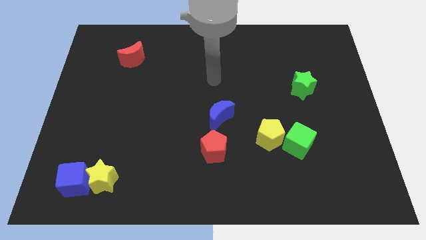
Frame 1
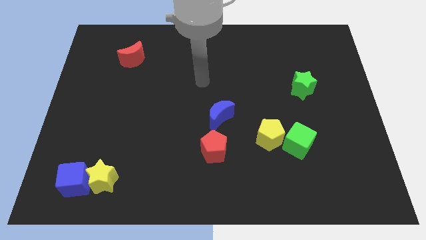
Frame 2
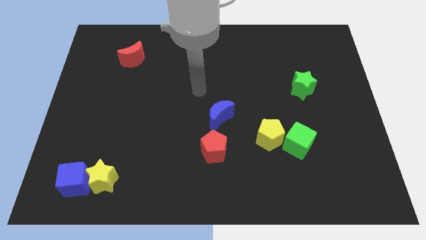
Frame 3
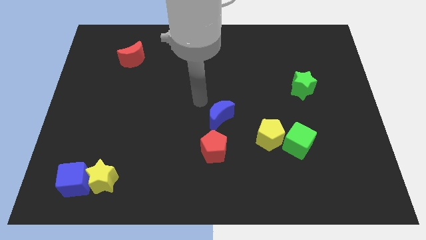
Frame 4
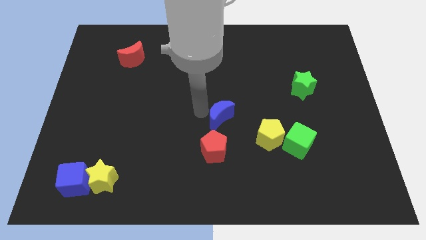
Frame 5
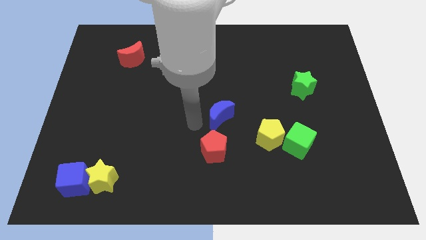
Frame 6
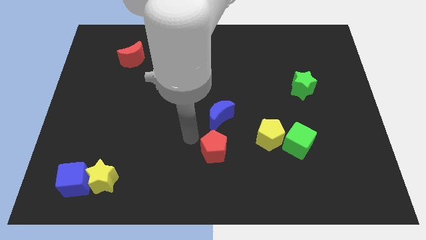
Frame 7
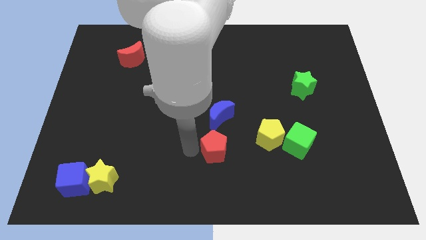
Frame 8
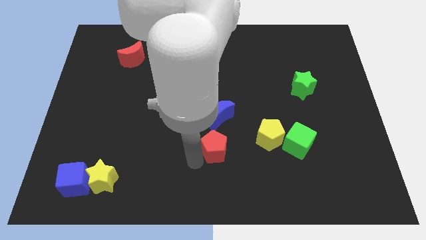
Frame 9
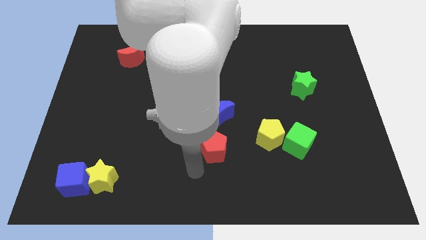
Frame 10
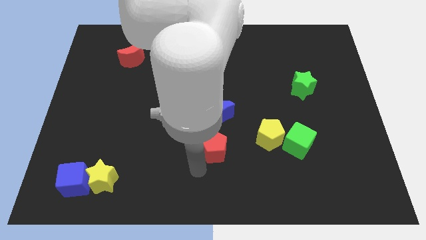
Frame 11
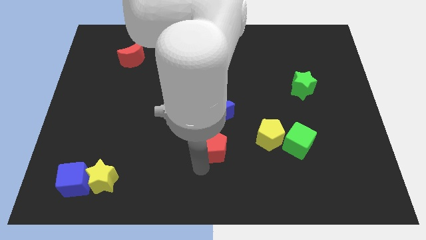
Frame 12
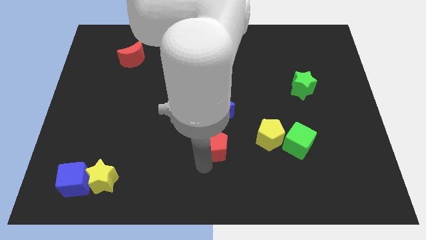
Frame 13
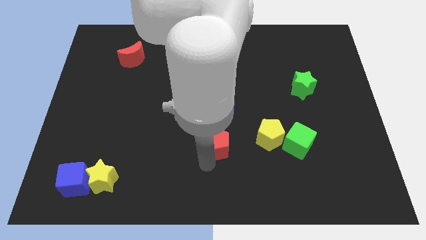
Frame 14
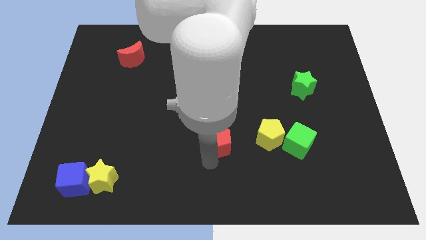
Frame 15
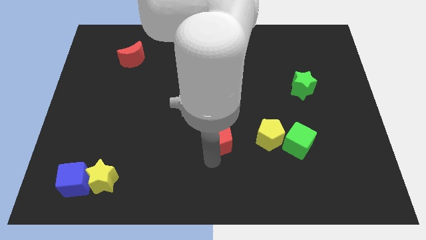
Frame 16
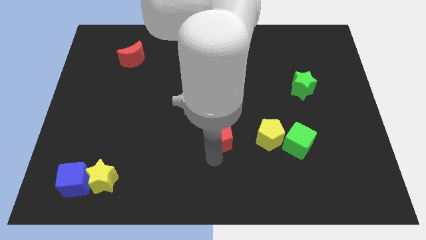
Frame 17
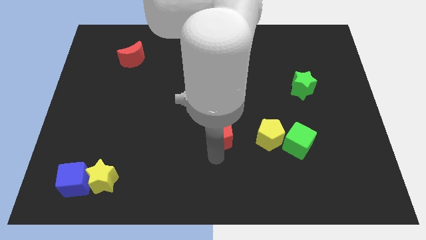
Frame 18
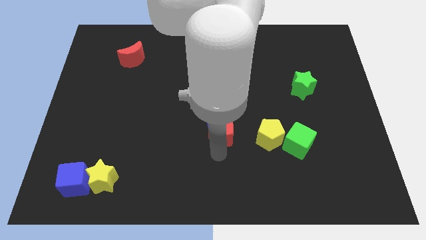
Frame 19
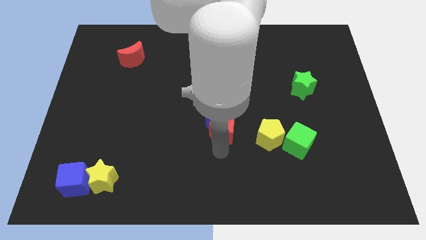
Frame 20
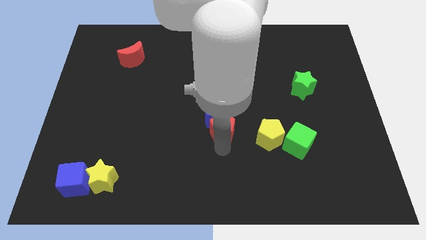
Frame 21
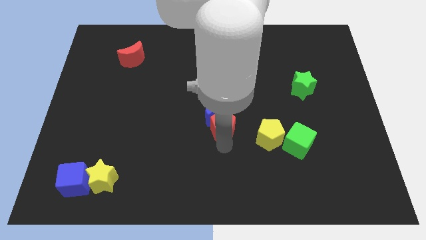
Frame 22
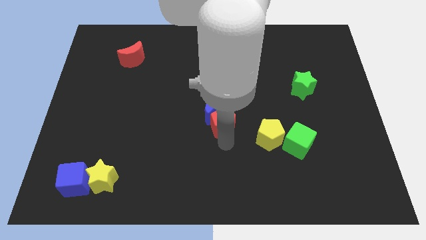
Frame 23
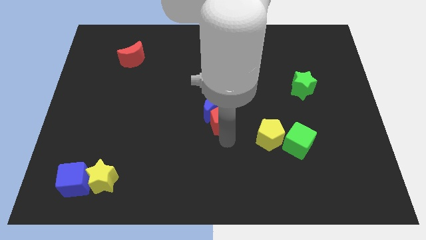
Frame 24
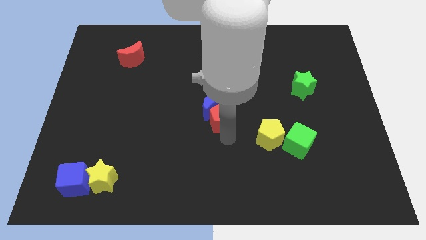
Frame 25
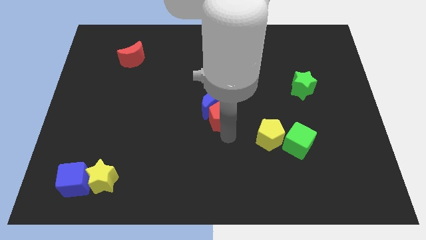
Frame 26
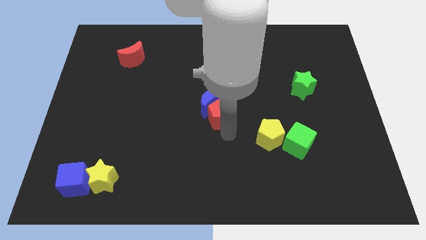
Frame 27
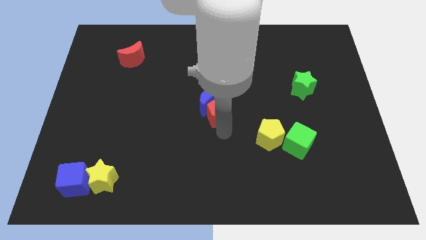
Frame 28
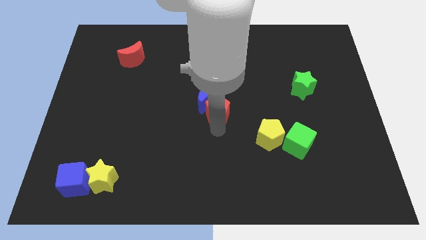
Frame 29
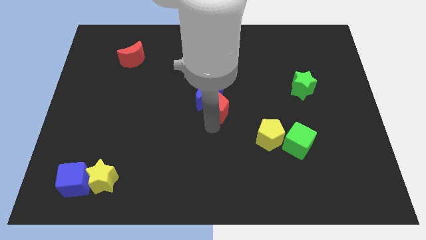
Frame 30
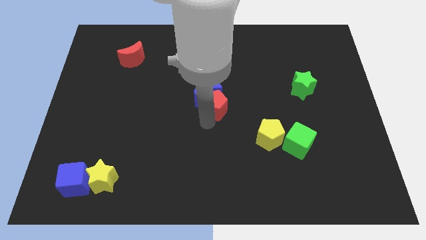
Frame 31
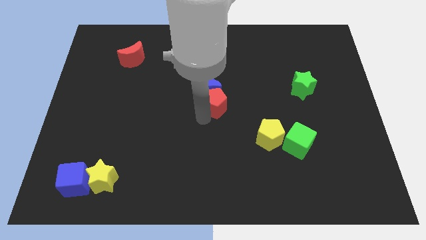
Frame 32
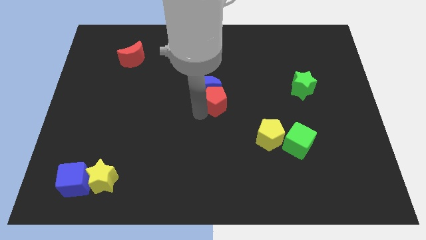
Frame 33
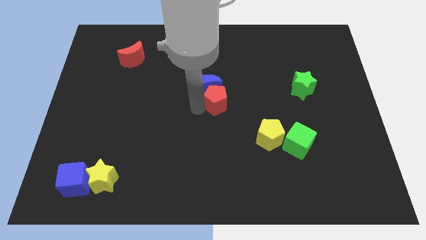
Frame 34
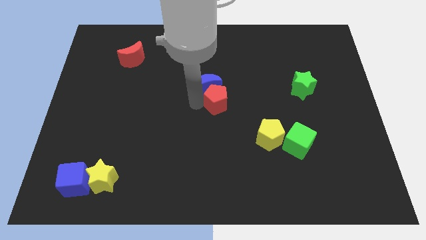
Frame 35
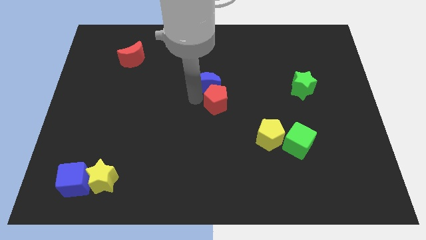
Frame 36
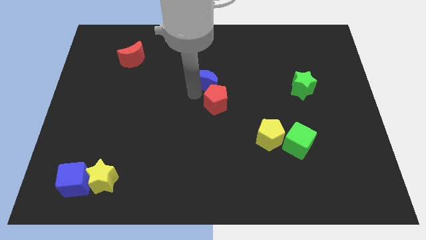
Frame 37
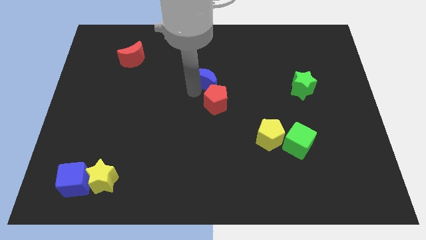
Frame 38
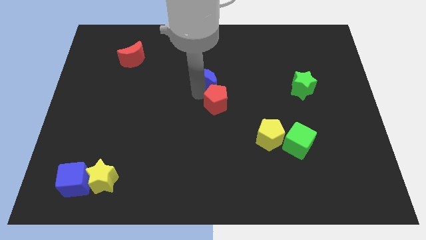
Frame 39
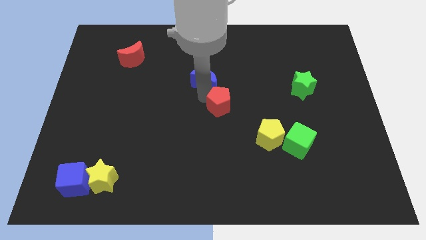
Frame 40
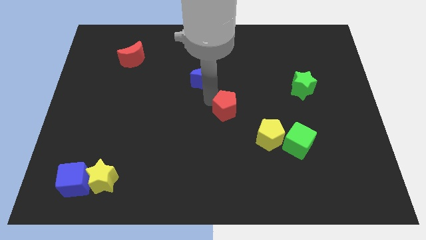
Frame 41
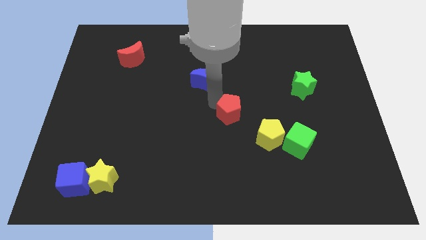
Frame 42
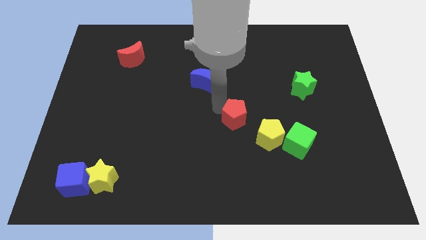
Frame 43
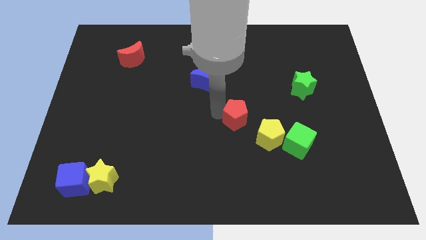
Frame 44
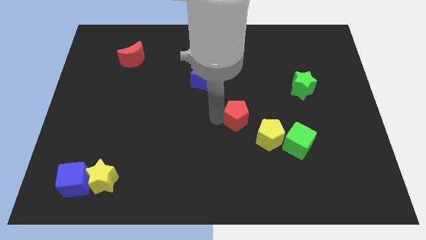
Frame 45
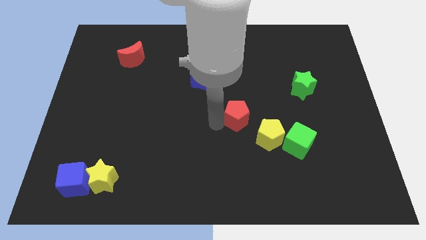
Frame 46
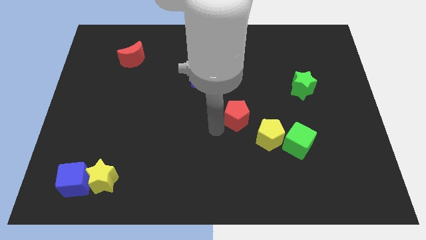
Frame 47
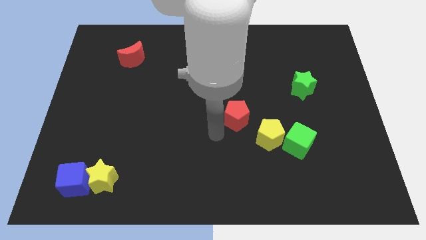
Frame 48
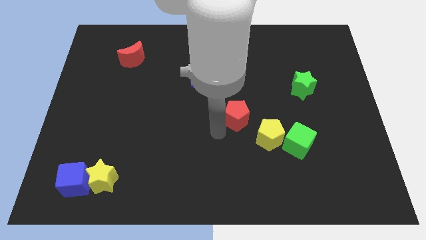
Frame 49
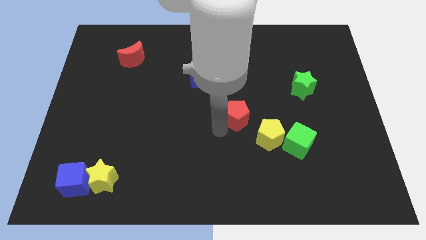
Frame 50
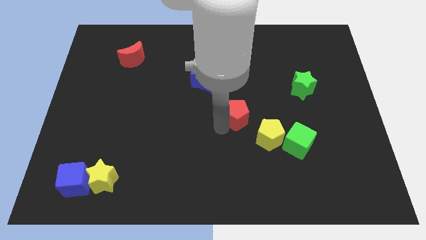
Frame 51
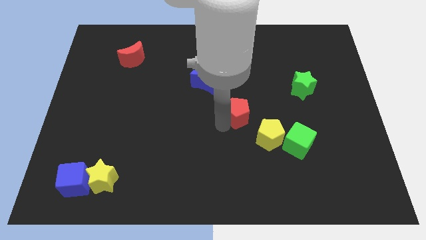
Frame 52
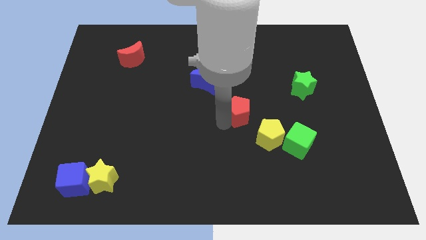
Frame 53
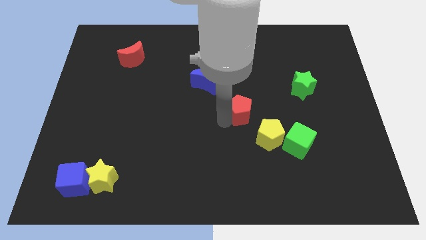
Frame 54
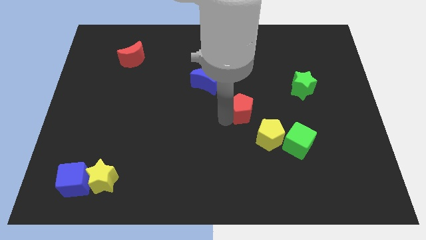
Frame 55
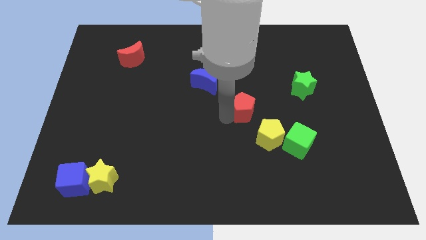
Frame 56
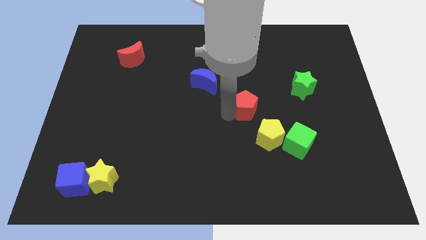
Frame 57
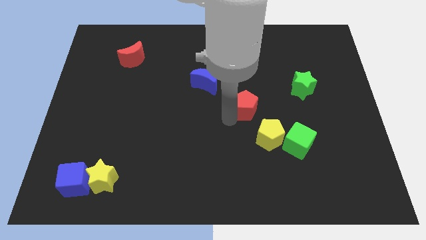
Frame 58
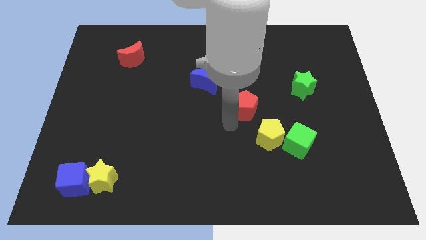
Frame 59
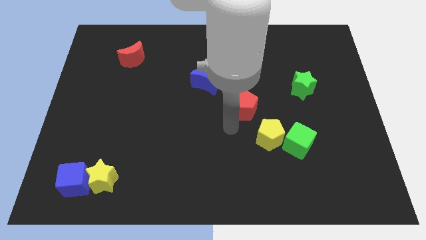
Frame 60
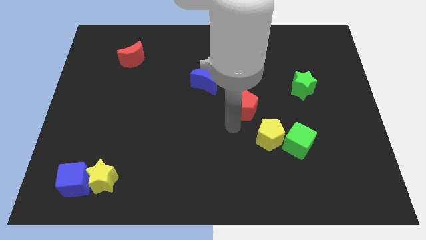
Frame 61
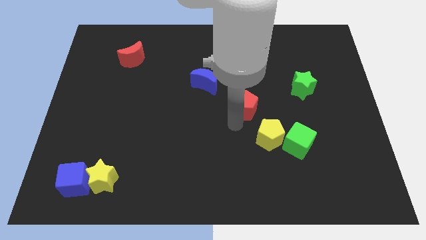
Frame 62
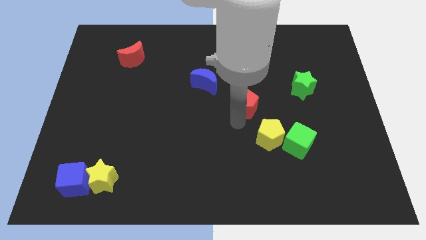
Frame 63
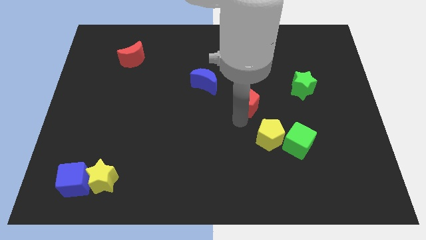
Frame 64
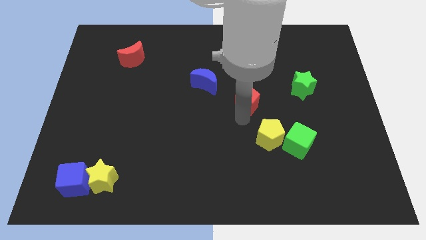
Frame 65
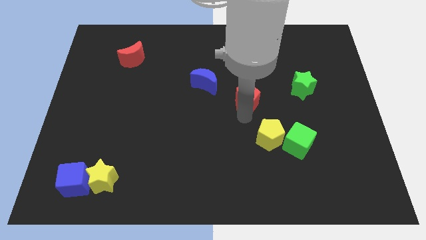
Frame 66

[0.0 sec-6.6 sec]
put the red pentagon left of the green star

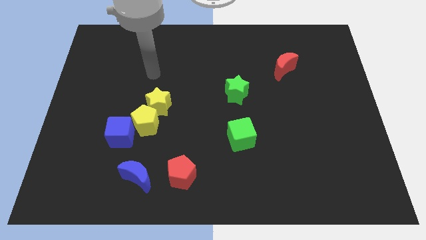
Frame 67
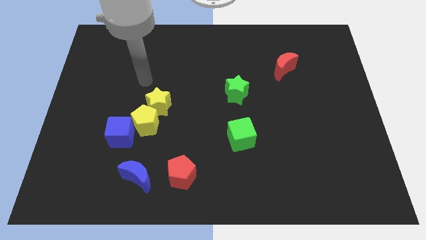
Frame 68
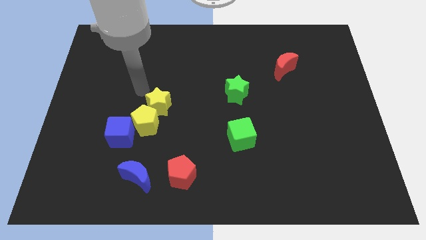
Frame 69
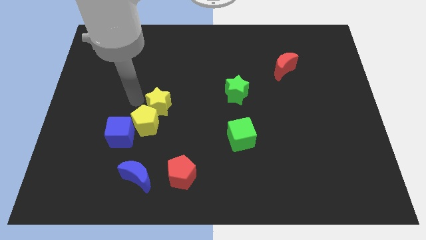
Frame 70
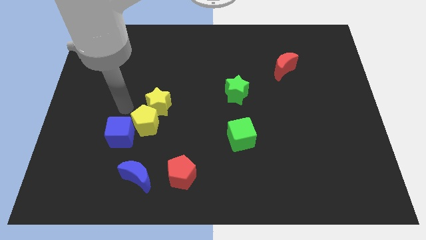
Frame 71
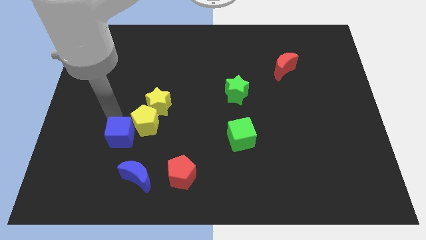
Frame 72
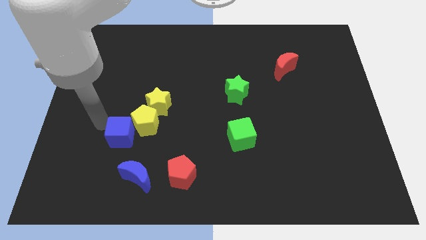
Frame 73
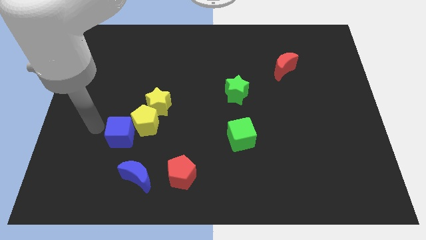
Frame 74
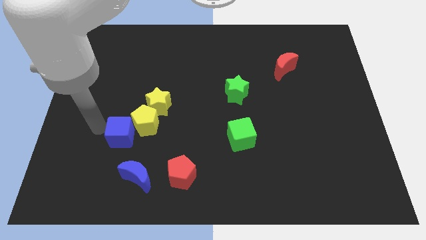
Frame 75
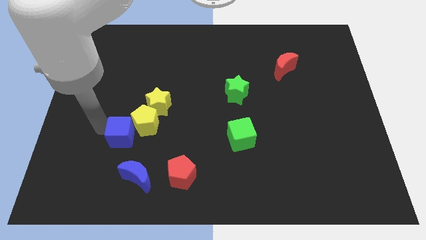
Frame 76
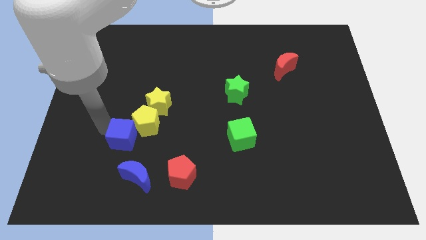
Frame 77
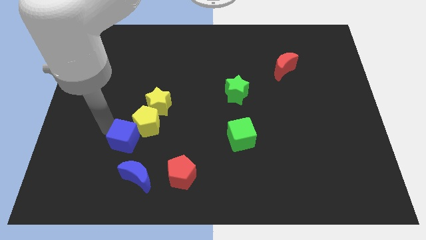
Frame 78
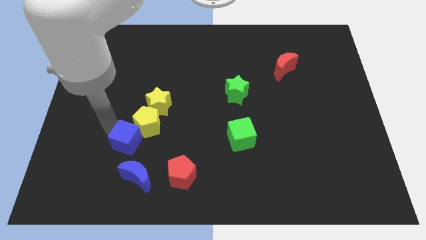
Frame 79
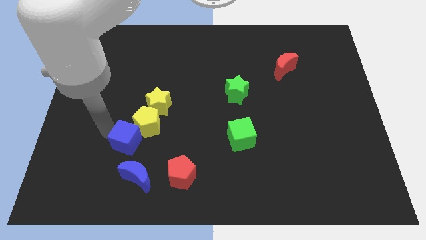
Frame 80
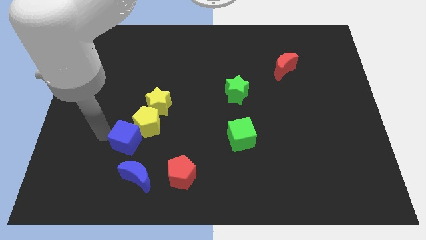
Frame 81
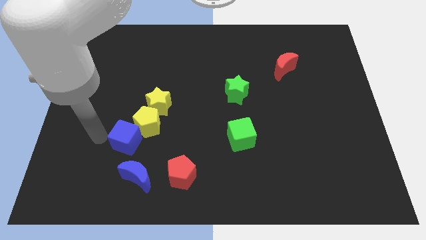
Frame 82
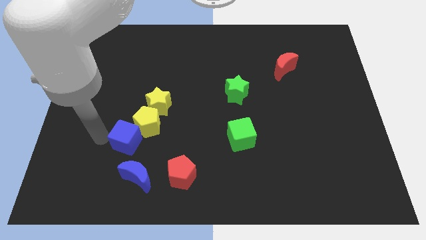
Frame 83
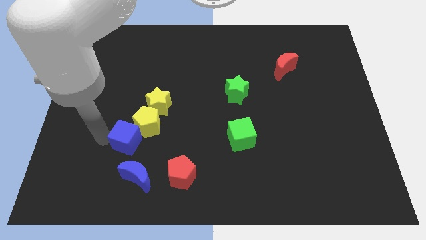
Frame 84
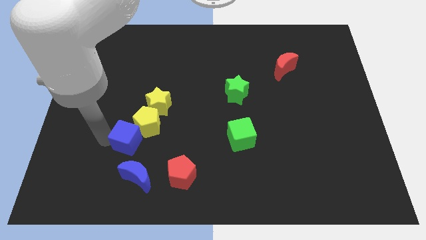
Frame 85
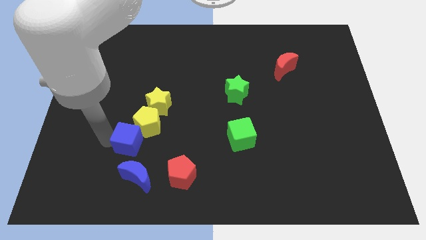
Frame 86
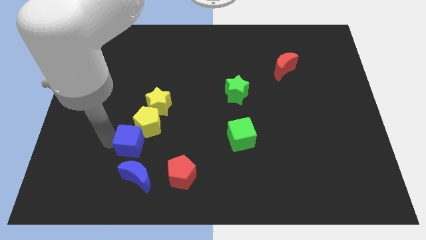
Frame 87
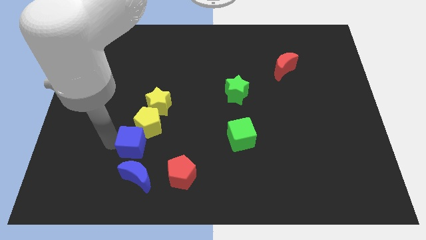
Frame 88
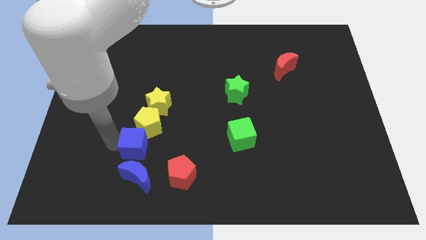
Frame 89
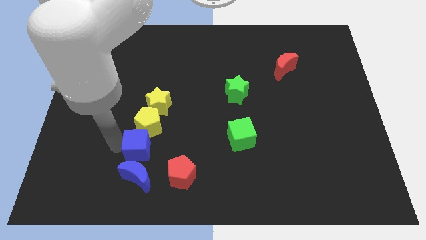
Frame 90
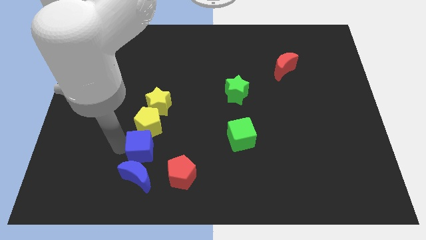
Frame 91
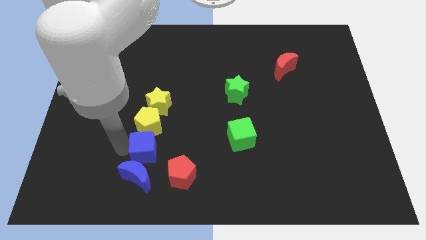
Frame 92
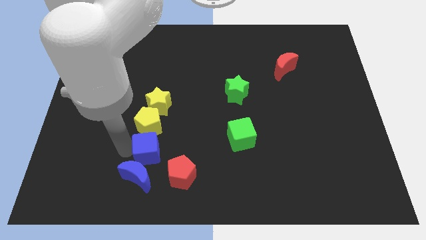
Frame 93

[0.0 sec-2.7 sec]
push the blue cube to the bottom right side of the yellow pentagon
